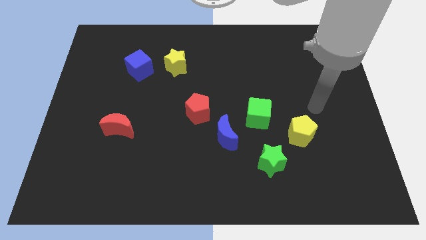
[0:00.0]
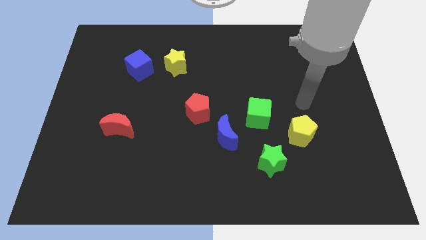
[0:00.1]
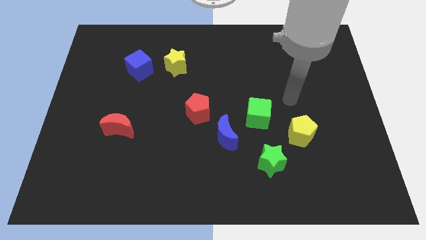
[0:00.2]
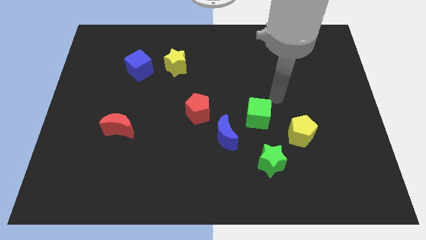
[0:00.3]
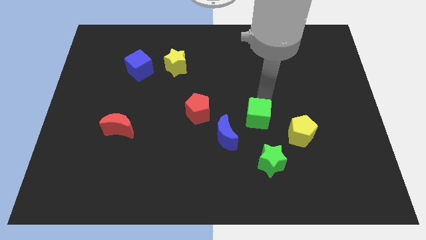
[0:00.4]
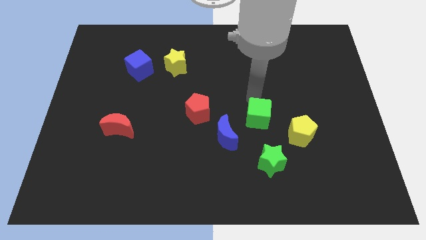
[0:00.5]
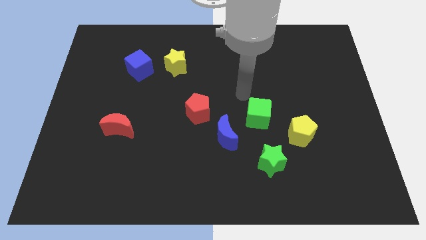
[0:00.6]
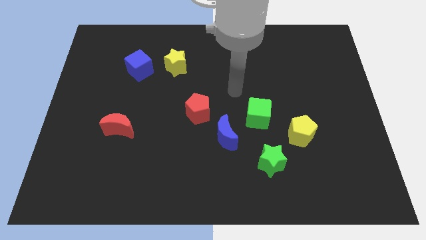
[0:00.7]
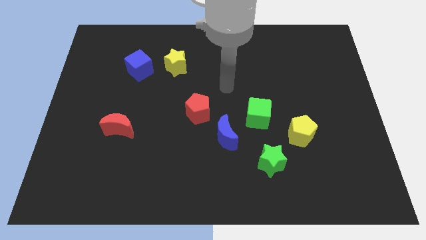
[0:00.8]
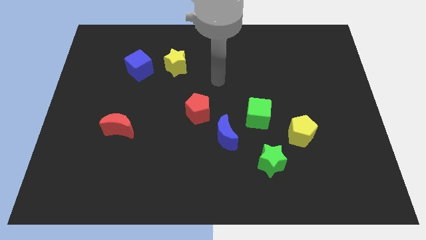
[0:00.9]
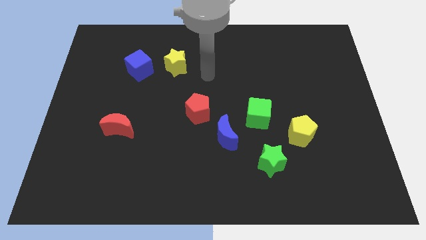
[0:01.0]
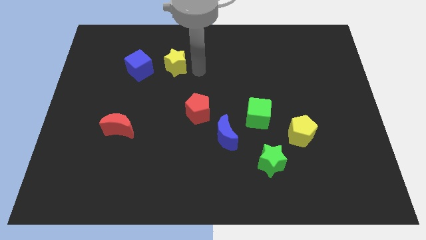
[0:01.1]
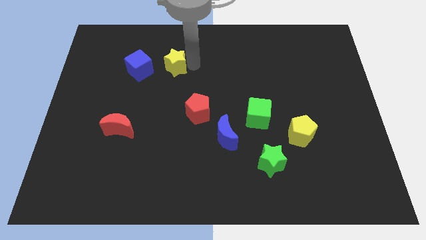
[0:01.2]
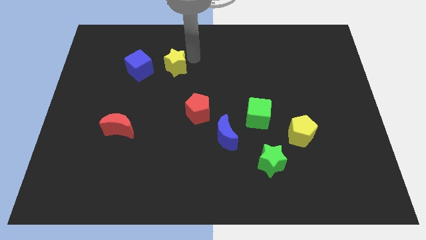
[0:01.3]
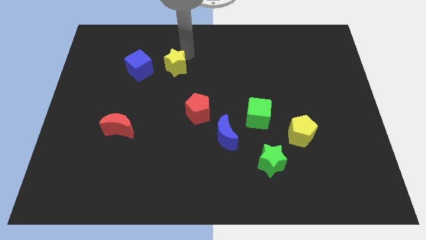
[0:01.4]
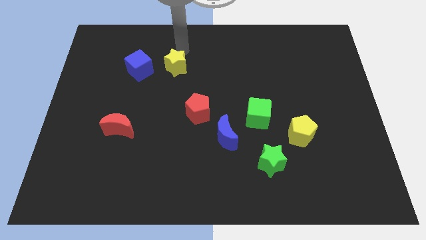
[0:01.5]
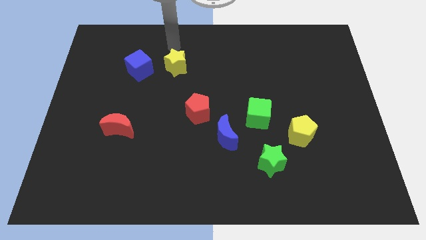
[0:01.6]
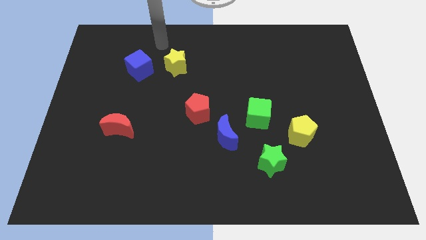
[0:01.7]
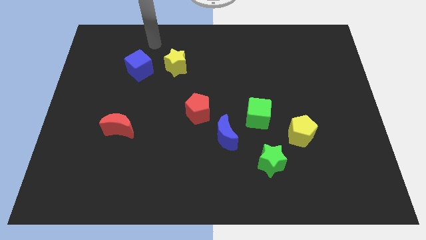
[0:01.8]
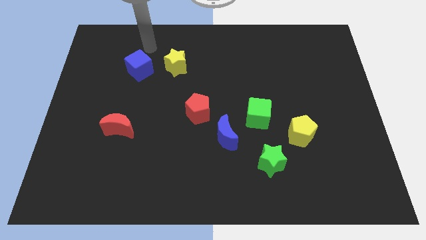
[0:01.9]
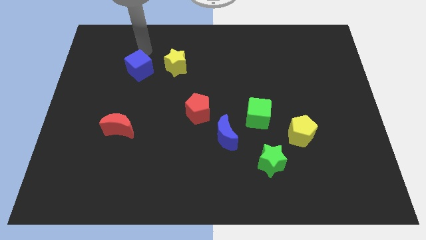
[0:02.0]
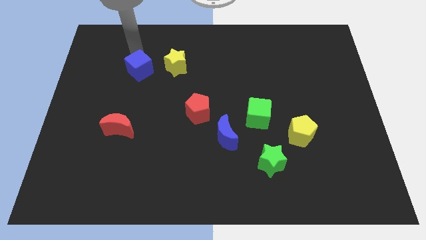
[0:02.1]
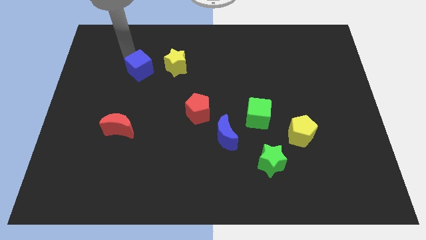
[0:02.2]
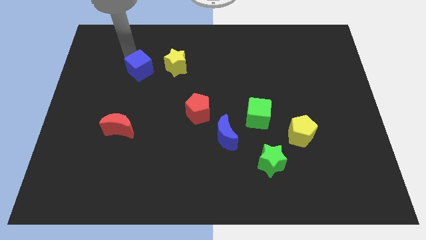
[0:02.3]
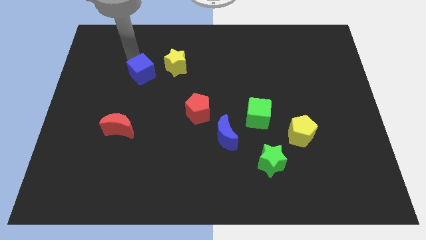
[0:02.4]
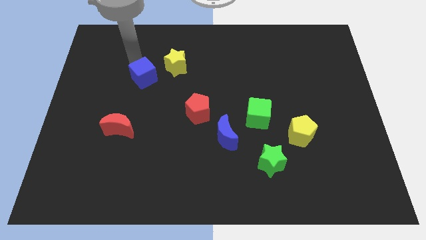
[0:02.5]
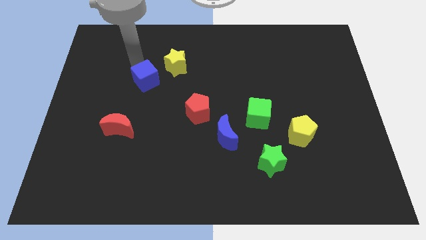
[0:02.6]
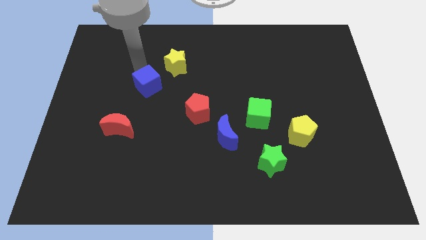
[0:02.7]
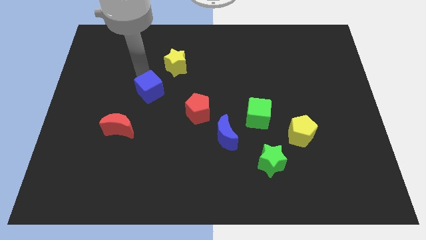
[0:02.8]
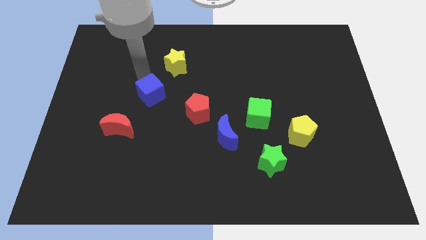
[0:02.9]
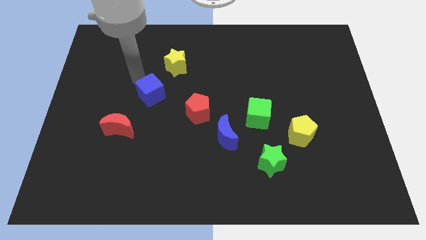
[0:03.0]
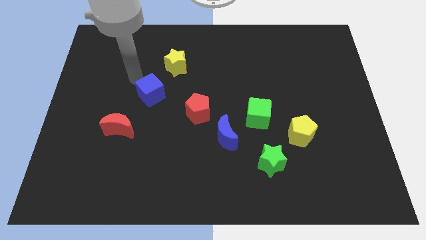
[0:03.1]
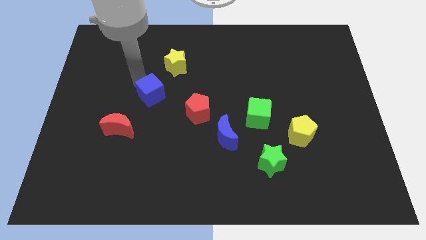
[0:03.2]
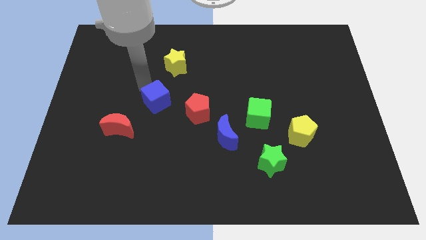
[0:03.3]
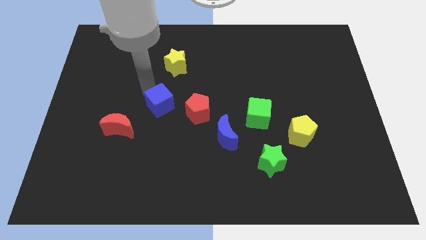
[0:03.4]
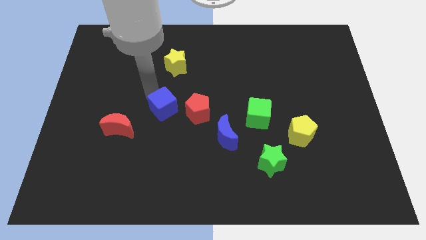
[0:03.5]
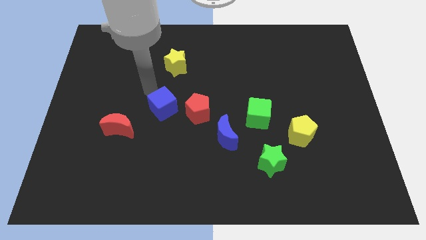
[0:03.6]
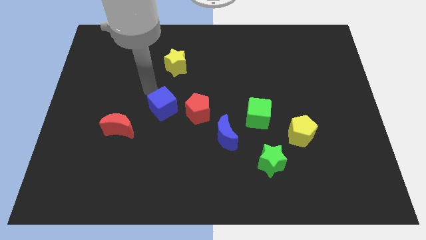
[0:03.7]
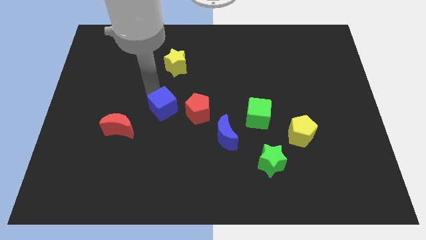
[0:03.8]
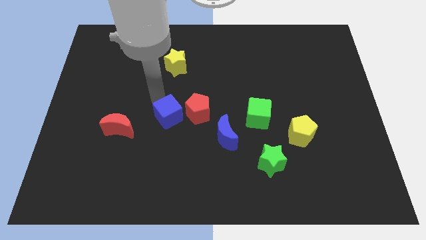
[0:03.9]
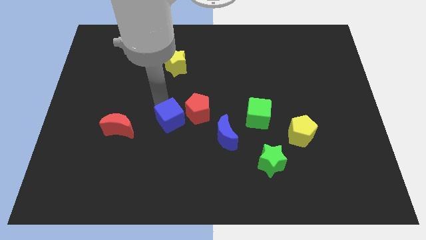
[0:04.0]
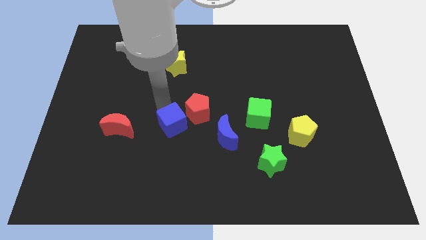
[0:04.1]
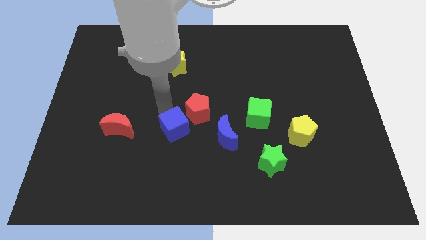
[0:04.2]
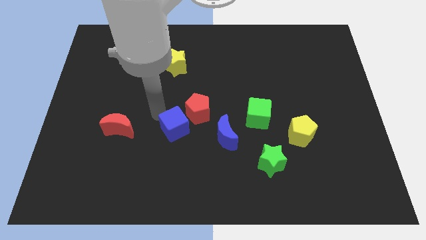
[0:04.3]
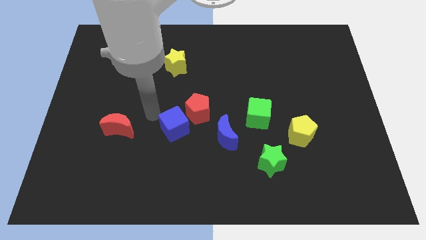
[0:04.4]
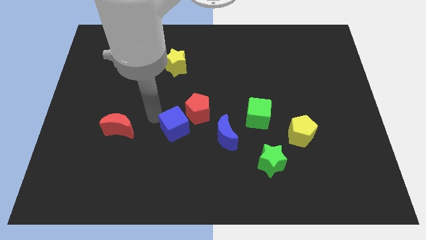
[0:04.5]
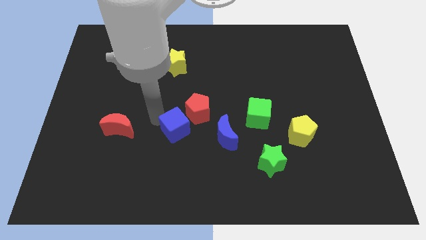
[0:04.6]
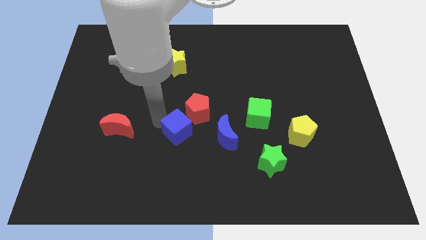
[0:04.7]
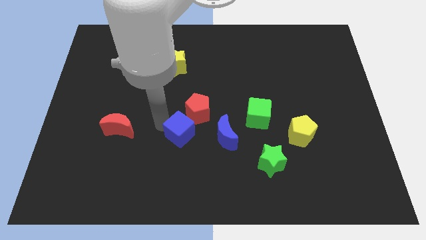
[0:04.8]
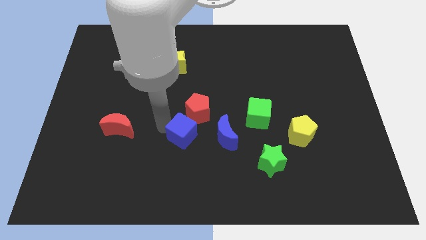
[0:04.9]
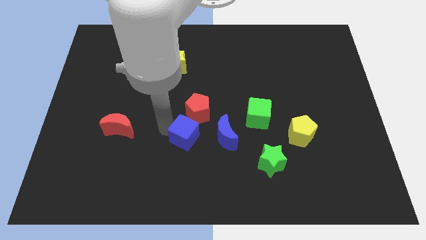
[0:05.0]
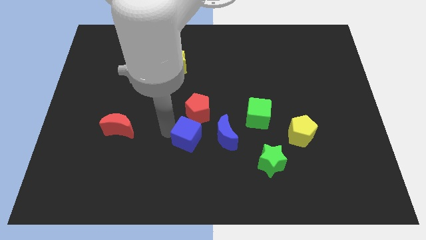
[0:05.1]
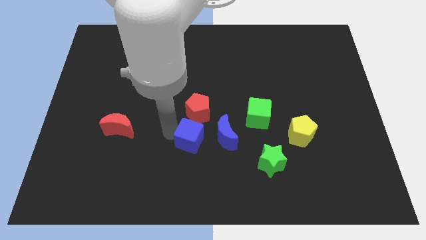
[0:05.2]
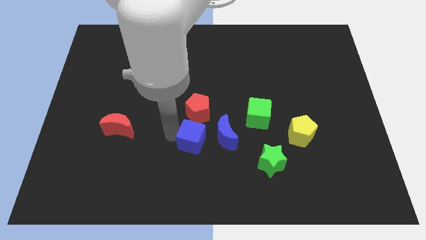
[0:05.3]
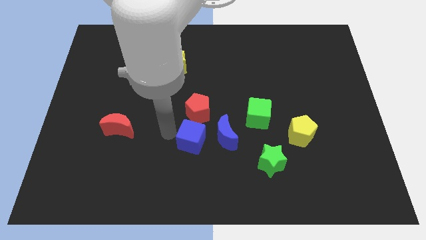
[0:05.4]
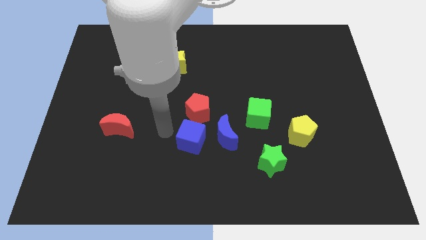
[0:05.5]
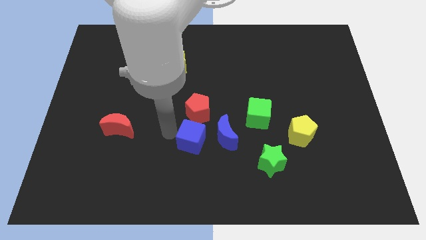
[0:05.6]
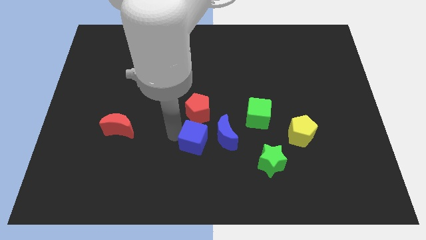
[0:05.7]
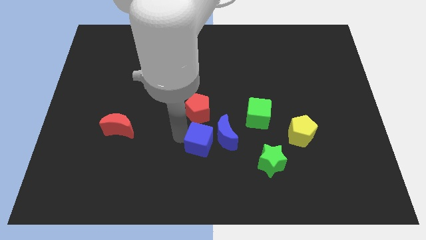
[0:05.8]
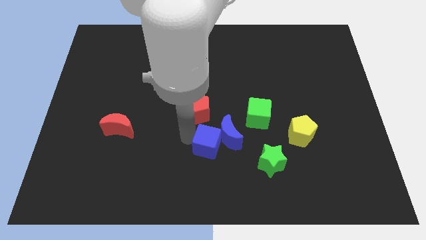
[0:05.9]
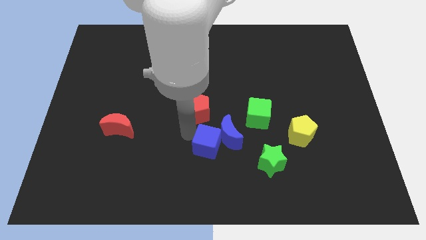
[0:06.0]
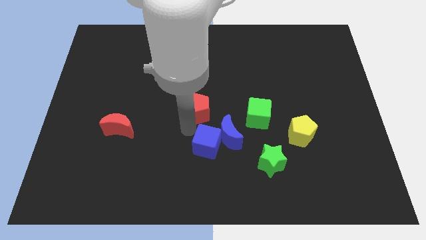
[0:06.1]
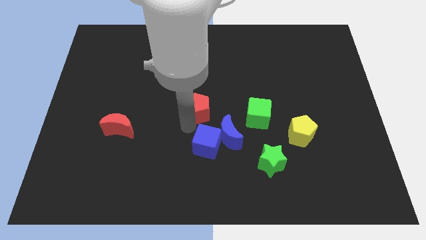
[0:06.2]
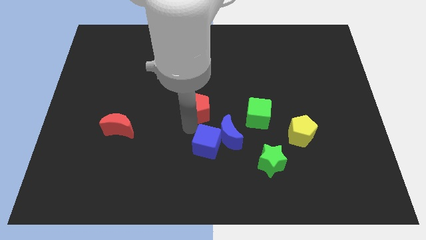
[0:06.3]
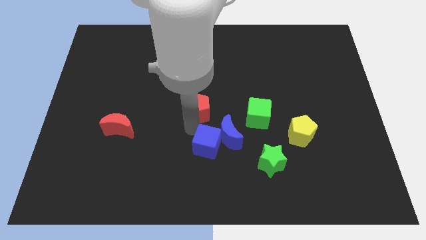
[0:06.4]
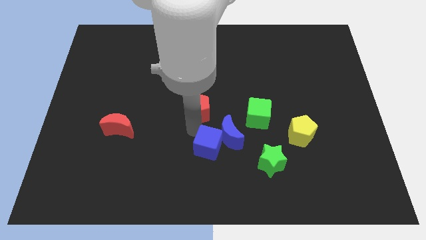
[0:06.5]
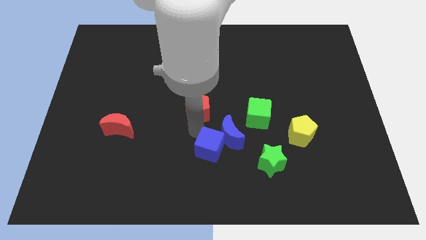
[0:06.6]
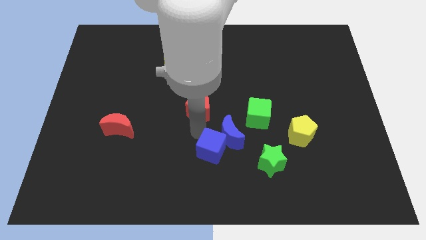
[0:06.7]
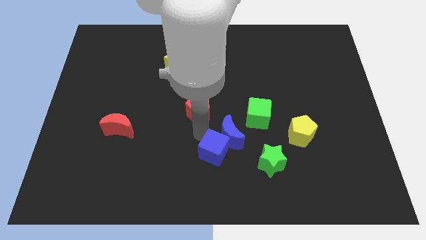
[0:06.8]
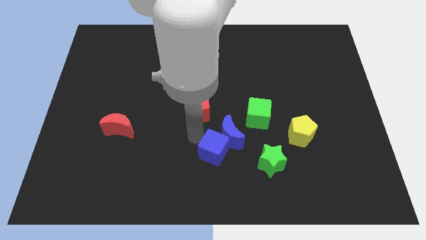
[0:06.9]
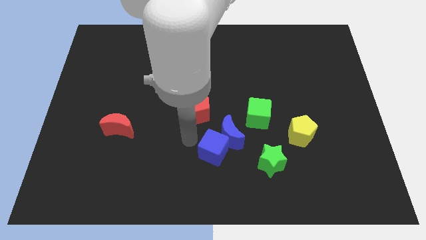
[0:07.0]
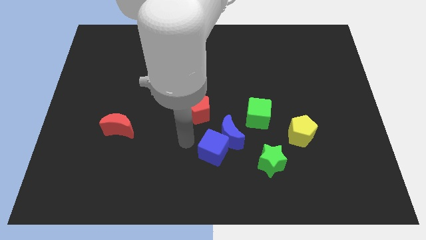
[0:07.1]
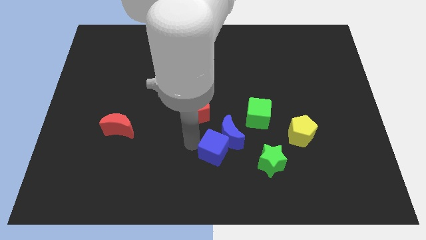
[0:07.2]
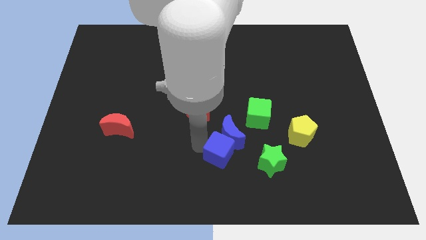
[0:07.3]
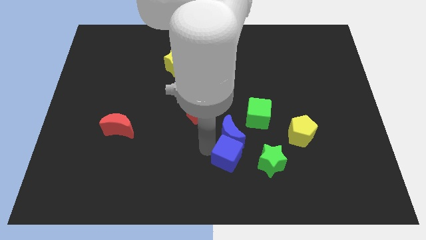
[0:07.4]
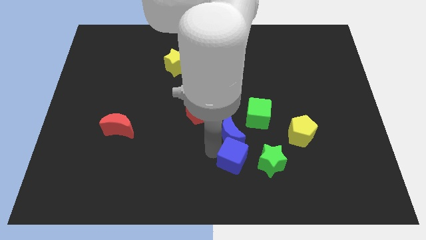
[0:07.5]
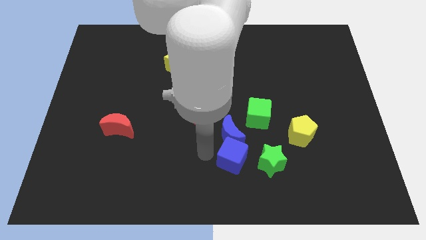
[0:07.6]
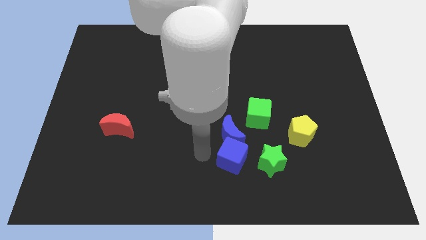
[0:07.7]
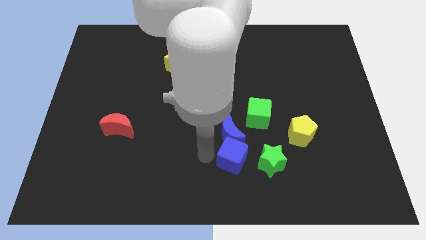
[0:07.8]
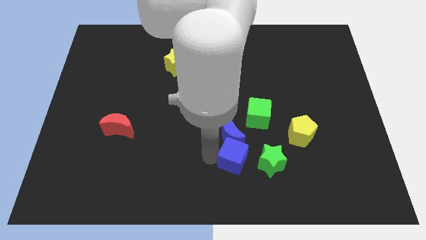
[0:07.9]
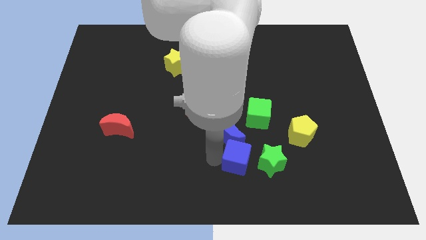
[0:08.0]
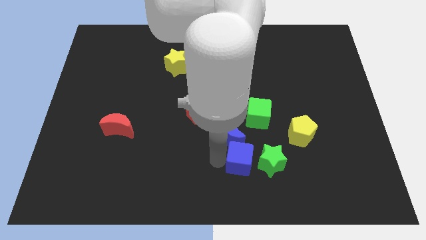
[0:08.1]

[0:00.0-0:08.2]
put the blue cube close to the green star
